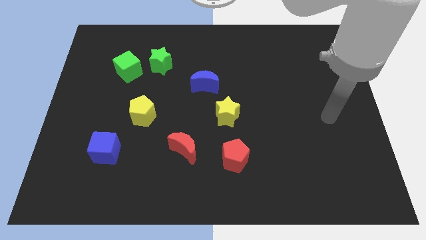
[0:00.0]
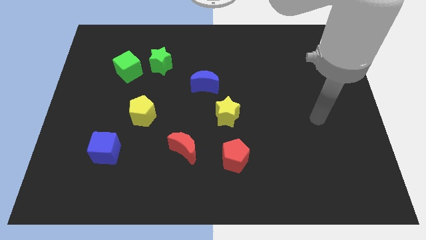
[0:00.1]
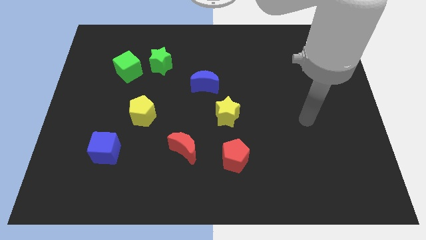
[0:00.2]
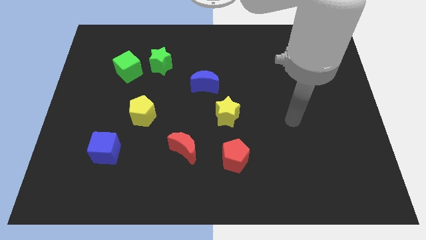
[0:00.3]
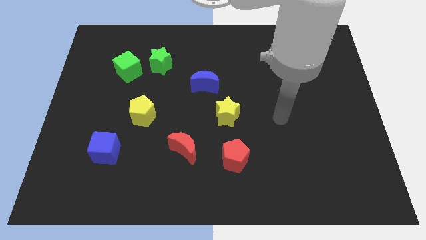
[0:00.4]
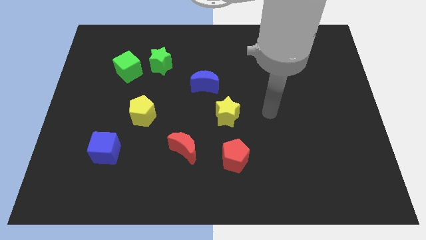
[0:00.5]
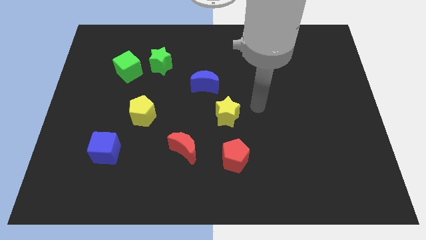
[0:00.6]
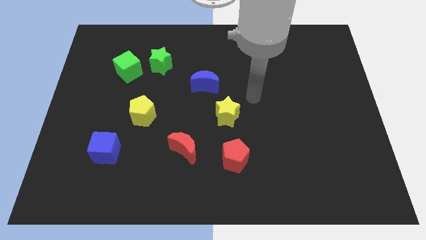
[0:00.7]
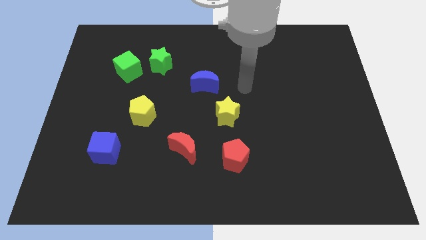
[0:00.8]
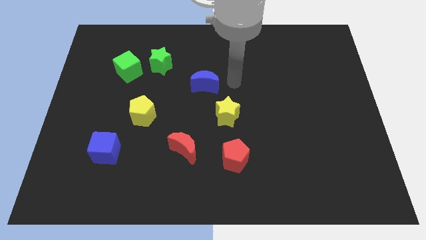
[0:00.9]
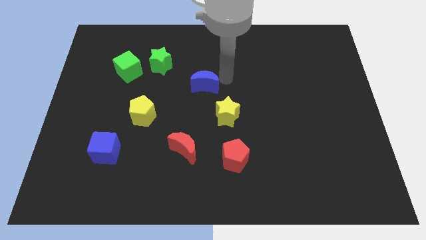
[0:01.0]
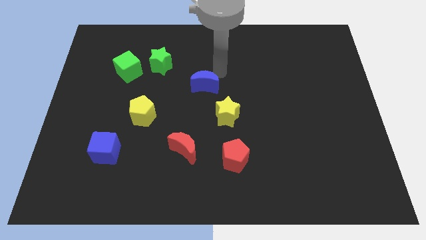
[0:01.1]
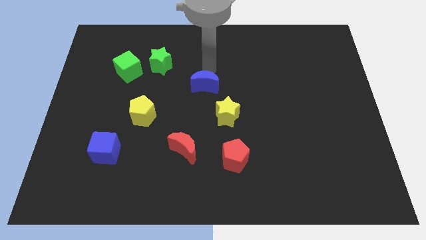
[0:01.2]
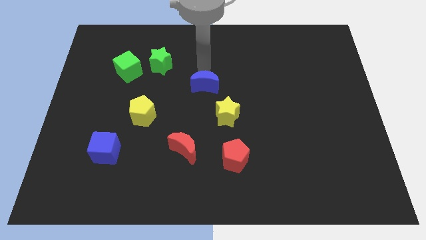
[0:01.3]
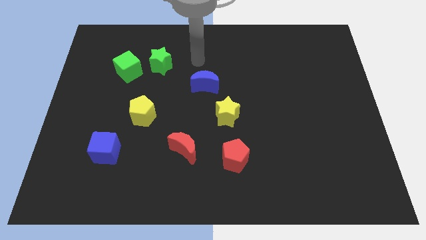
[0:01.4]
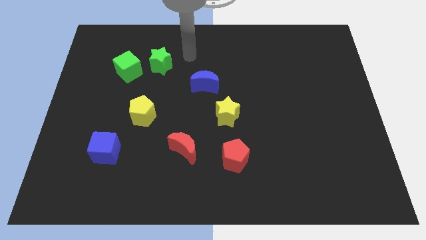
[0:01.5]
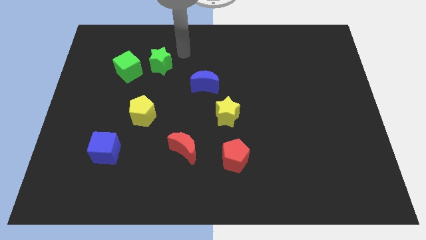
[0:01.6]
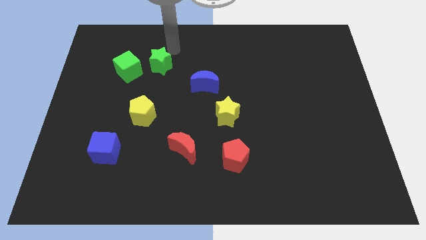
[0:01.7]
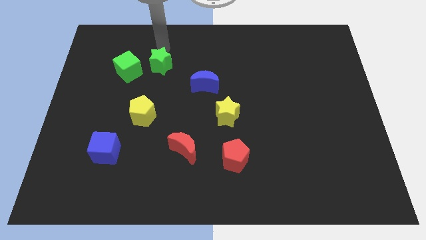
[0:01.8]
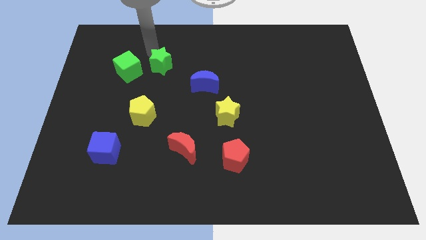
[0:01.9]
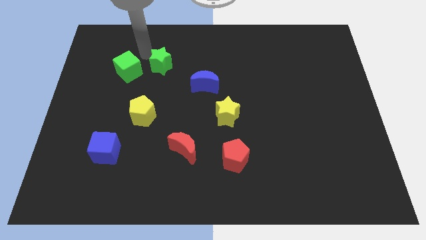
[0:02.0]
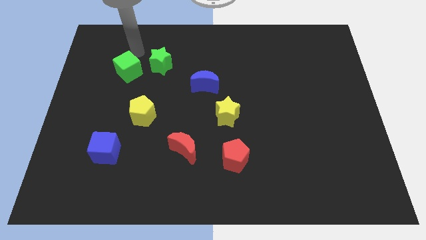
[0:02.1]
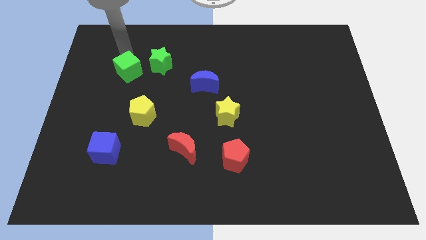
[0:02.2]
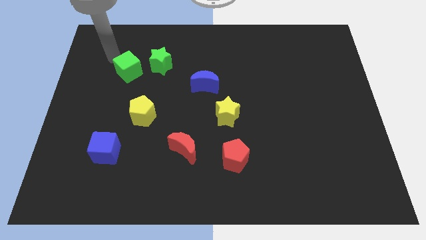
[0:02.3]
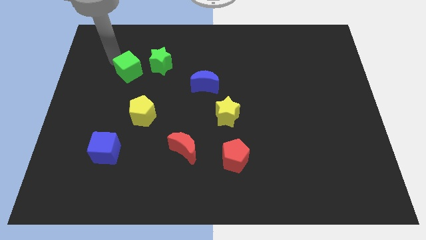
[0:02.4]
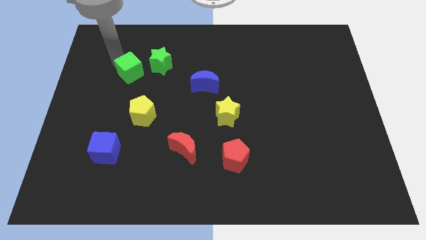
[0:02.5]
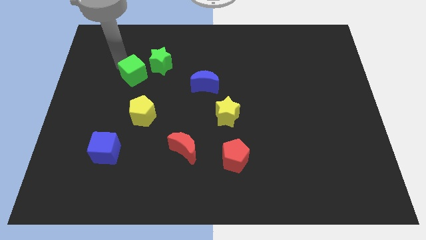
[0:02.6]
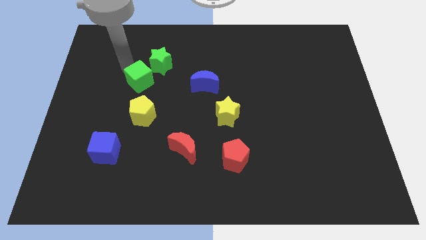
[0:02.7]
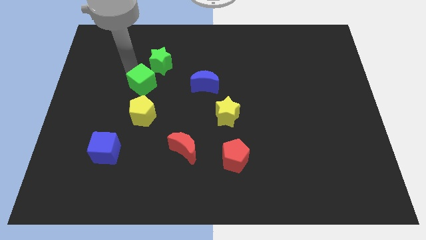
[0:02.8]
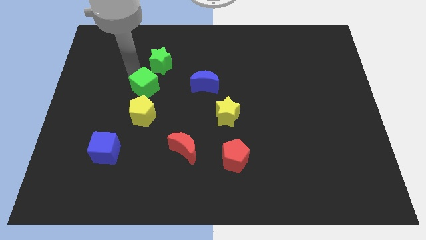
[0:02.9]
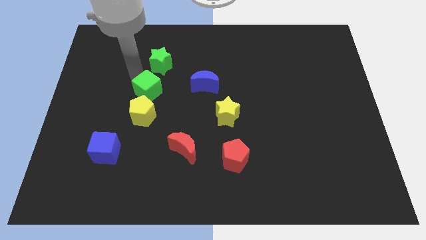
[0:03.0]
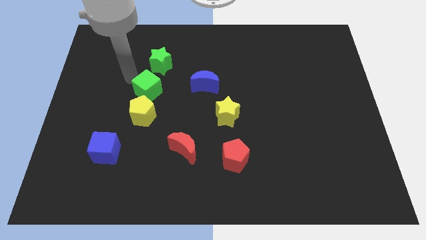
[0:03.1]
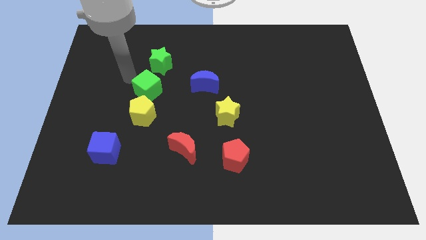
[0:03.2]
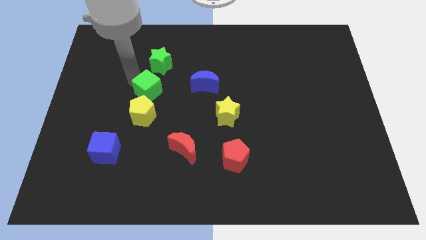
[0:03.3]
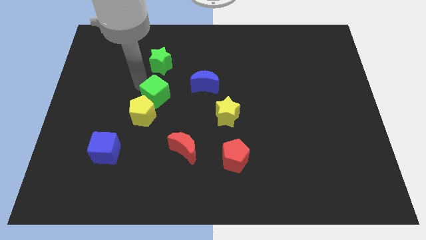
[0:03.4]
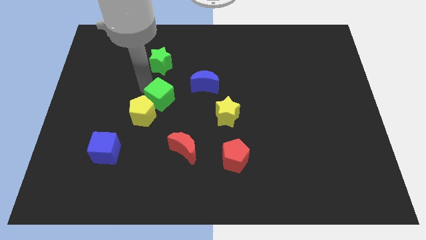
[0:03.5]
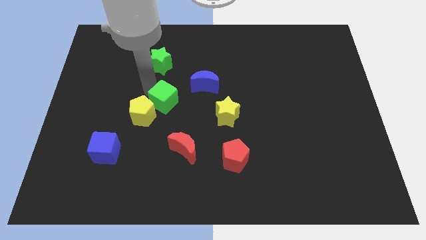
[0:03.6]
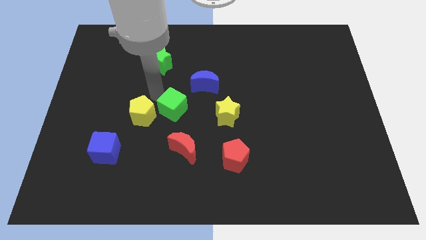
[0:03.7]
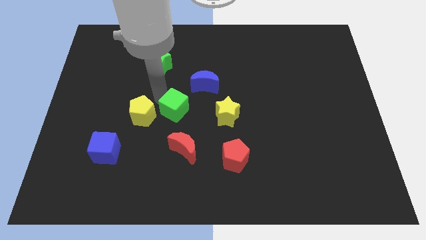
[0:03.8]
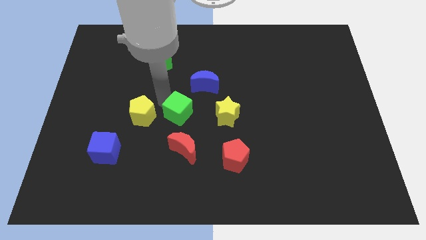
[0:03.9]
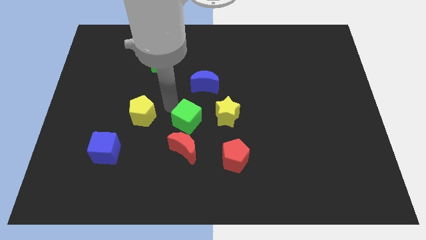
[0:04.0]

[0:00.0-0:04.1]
push the green cube down and then right

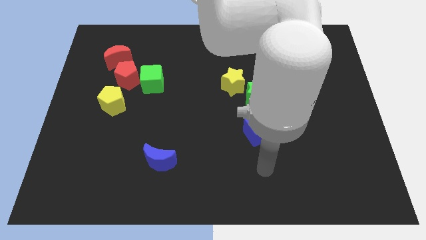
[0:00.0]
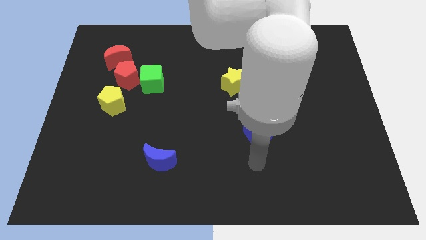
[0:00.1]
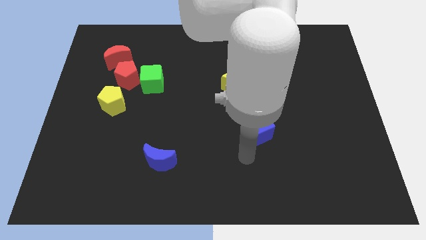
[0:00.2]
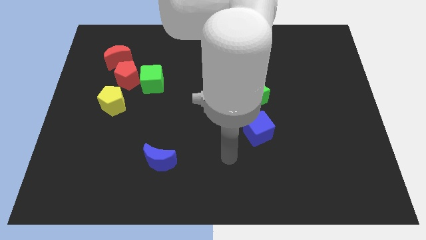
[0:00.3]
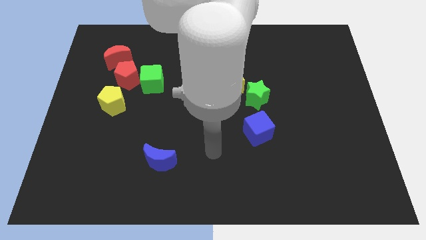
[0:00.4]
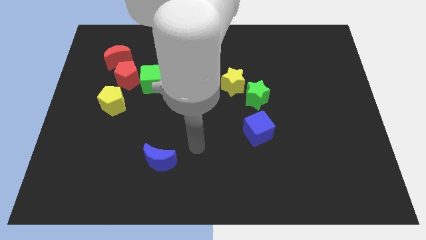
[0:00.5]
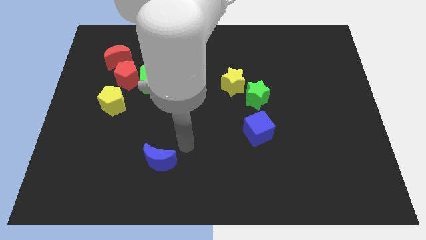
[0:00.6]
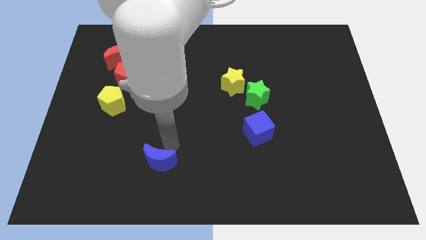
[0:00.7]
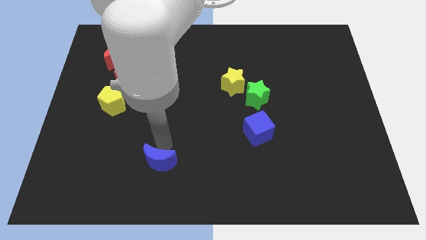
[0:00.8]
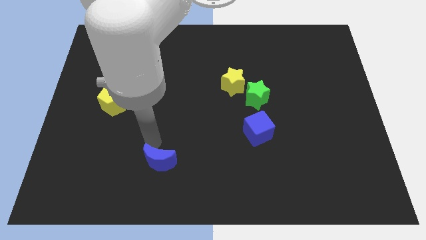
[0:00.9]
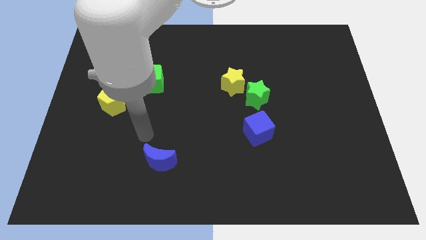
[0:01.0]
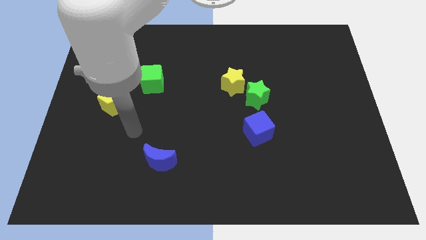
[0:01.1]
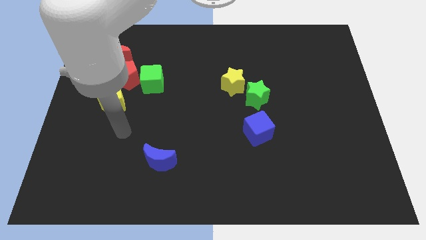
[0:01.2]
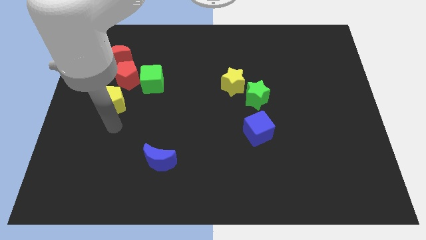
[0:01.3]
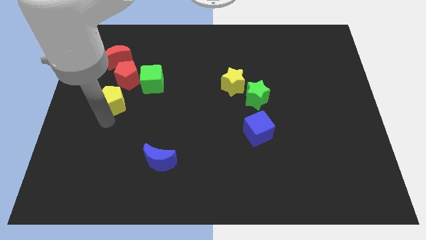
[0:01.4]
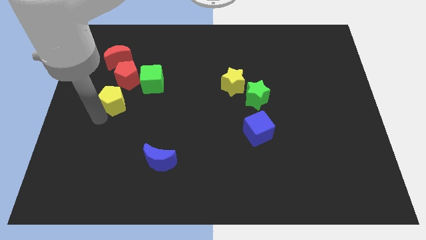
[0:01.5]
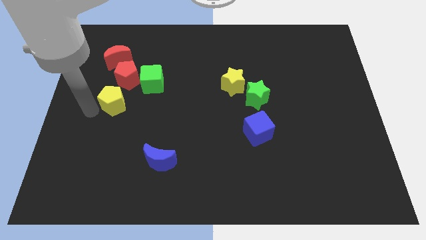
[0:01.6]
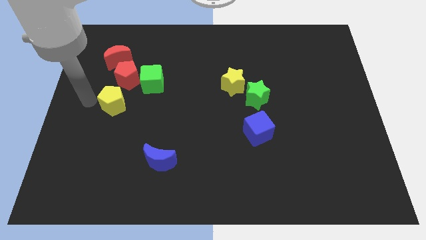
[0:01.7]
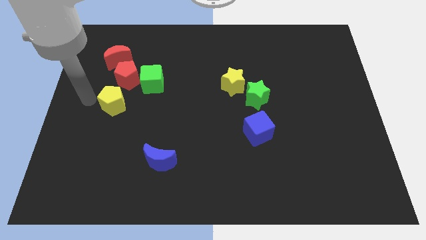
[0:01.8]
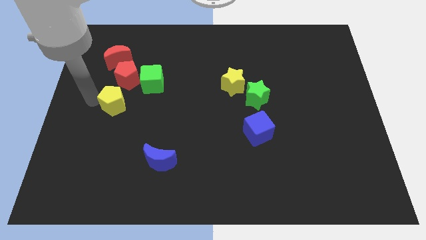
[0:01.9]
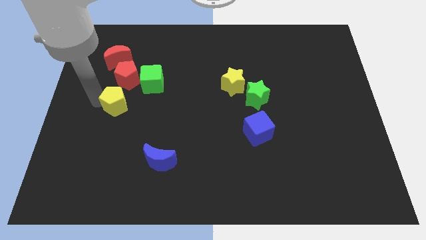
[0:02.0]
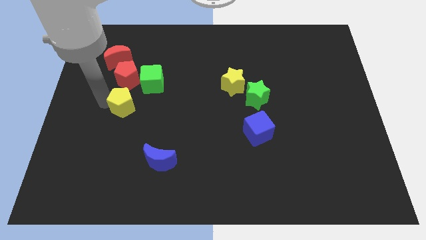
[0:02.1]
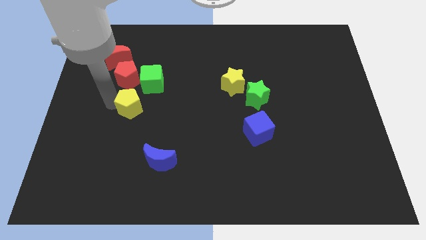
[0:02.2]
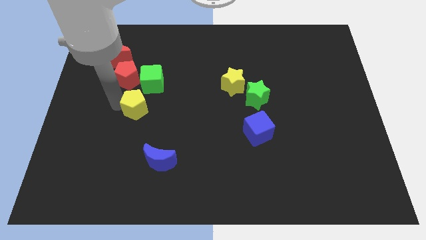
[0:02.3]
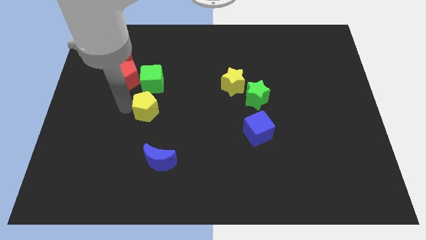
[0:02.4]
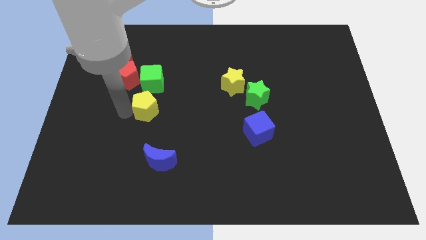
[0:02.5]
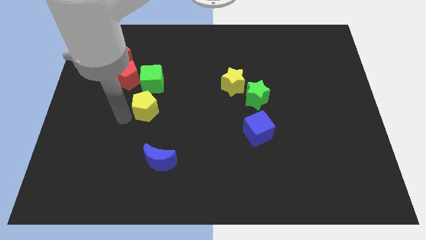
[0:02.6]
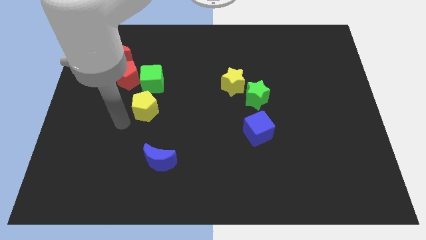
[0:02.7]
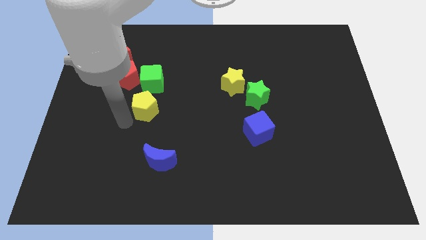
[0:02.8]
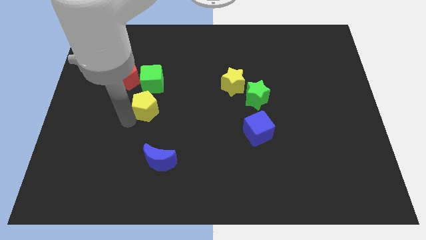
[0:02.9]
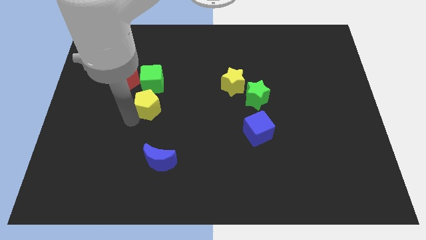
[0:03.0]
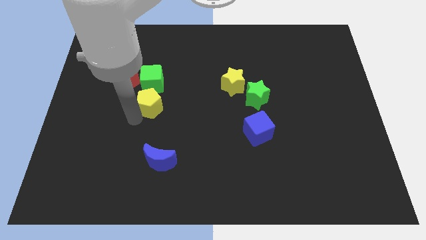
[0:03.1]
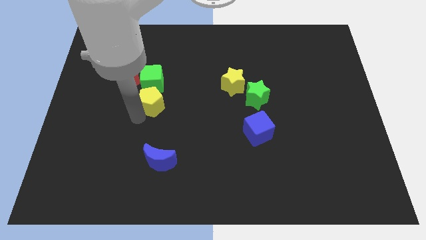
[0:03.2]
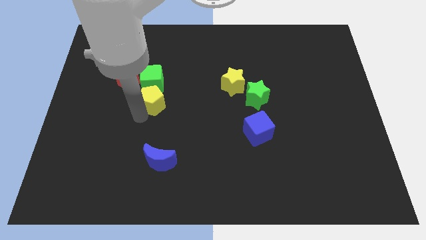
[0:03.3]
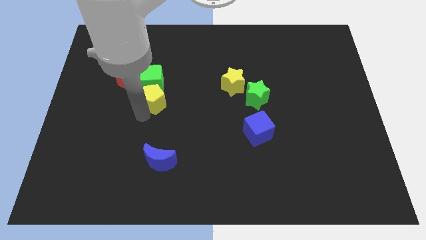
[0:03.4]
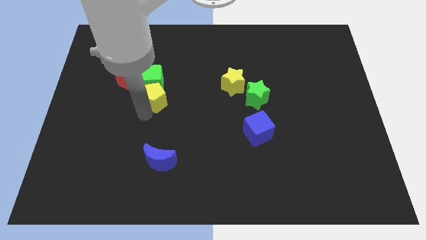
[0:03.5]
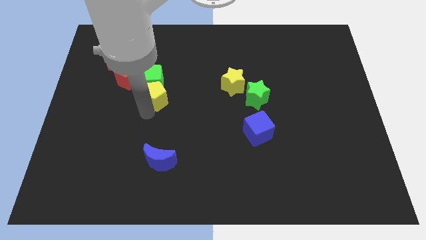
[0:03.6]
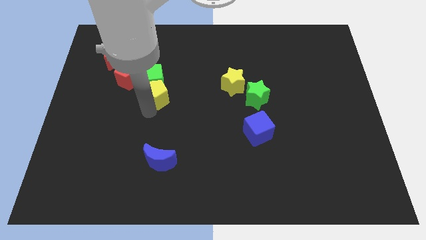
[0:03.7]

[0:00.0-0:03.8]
slightly push the yellow pentagon diagonally up and to the right
